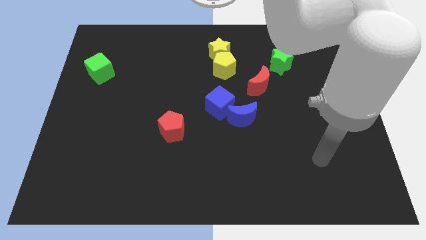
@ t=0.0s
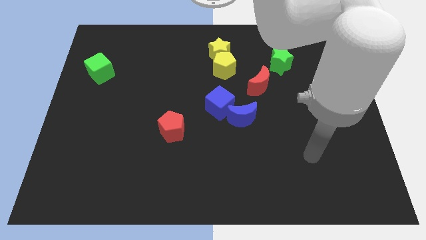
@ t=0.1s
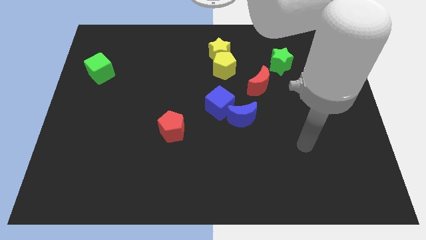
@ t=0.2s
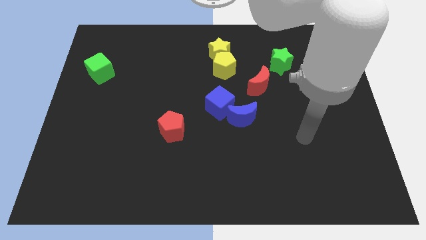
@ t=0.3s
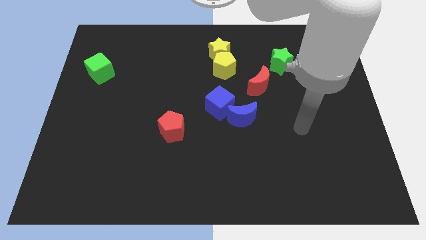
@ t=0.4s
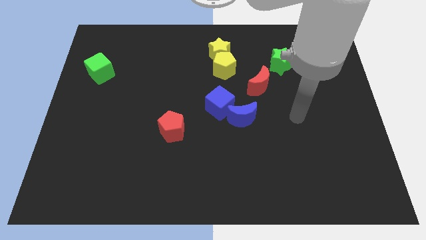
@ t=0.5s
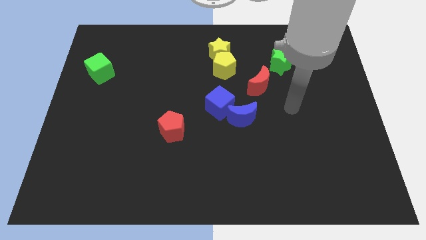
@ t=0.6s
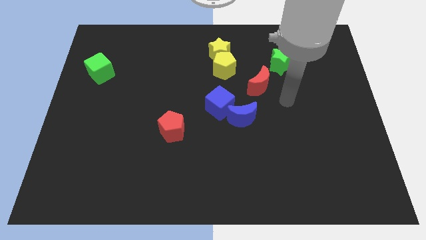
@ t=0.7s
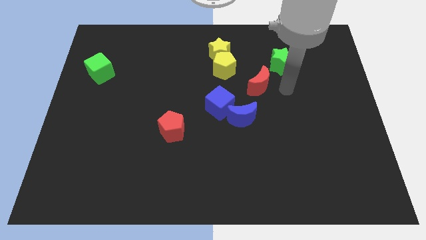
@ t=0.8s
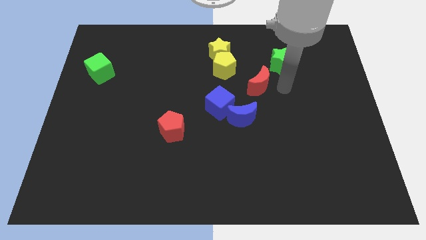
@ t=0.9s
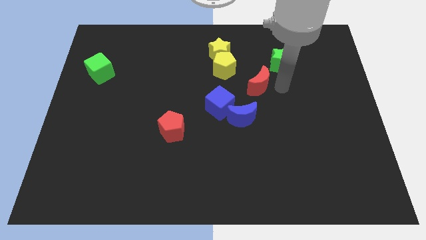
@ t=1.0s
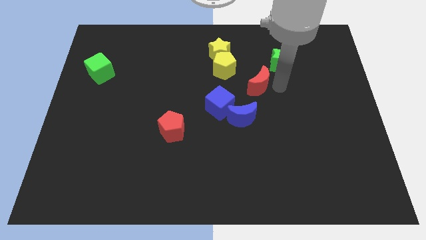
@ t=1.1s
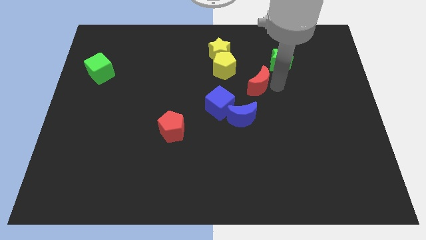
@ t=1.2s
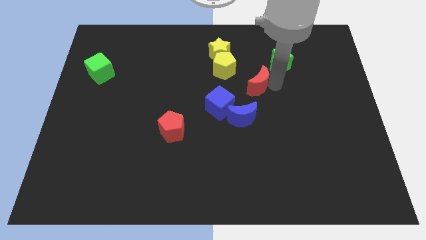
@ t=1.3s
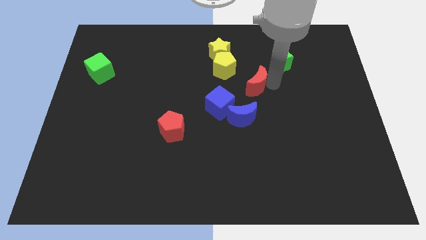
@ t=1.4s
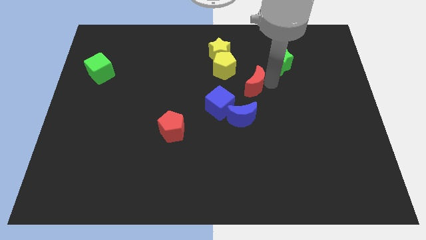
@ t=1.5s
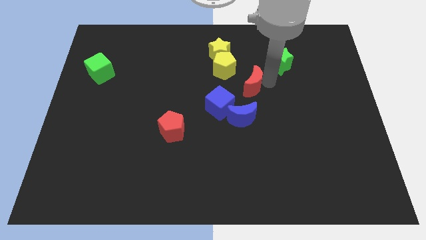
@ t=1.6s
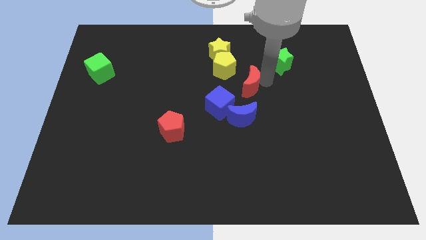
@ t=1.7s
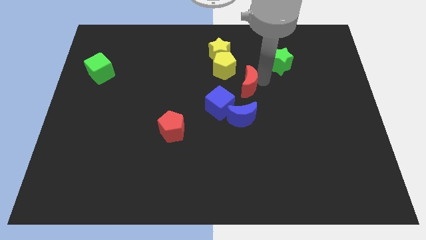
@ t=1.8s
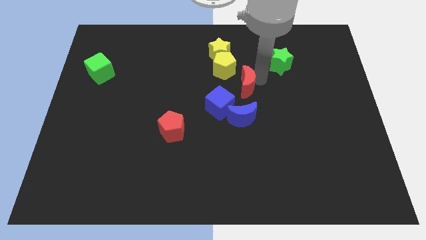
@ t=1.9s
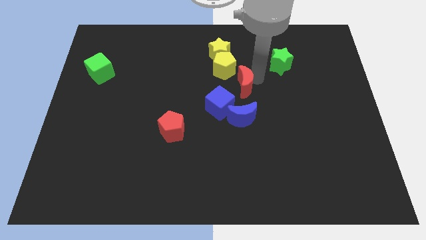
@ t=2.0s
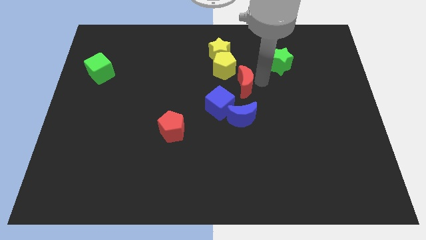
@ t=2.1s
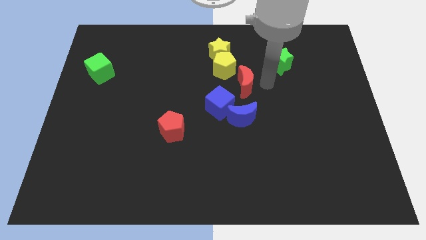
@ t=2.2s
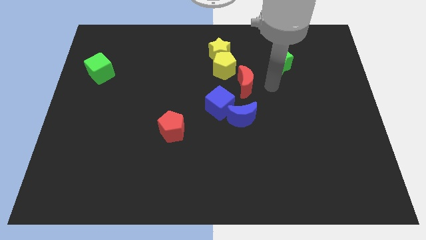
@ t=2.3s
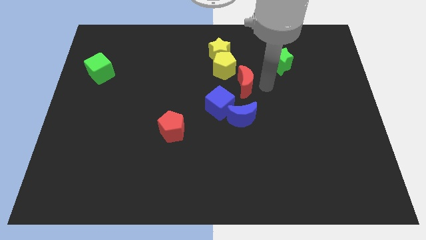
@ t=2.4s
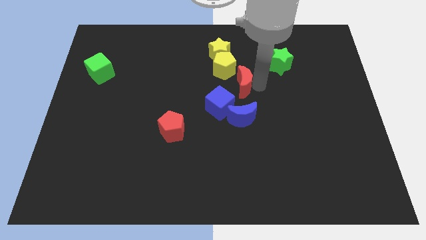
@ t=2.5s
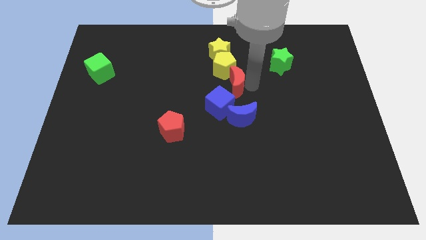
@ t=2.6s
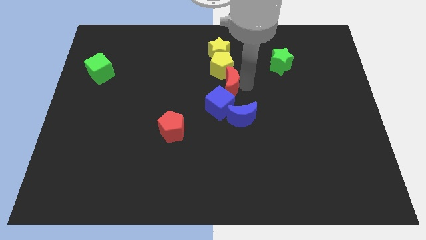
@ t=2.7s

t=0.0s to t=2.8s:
slightly move the red moon left

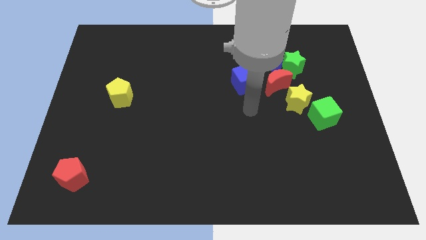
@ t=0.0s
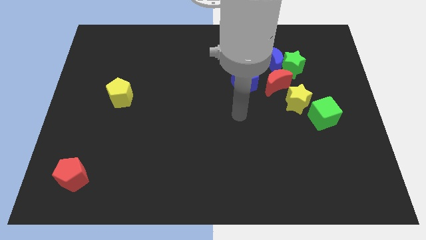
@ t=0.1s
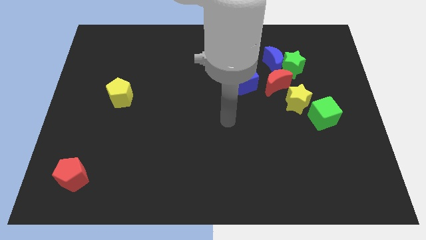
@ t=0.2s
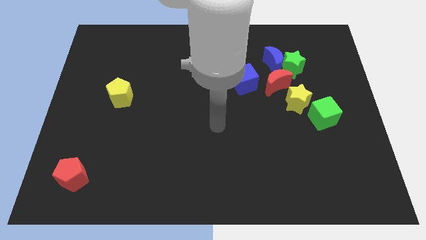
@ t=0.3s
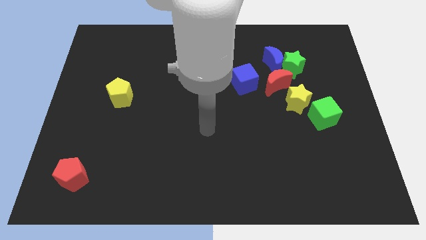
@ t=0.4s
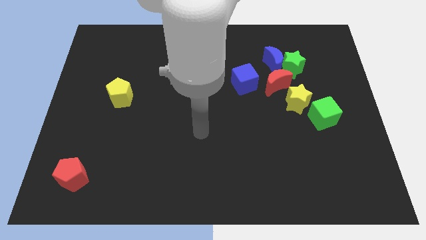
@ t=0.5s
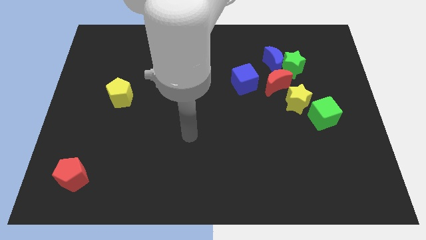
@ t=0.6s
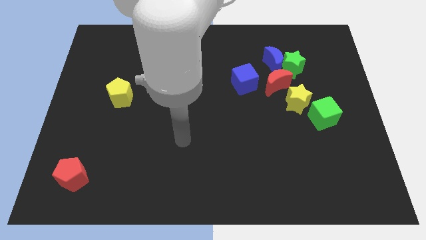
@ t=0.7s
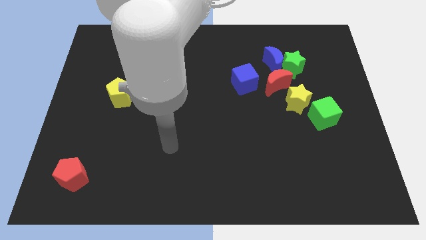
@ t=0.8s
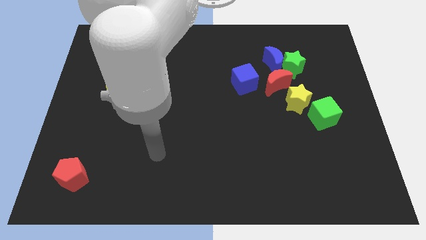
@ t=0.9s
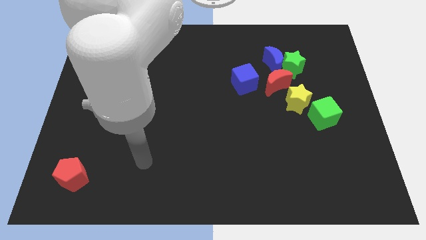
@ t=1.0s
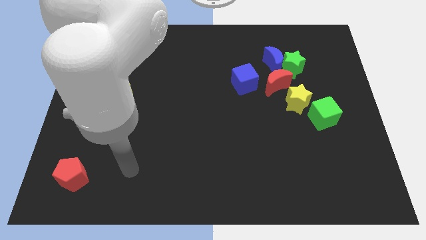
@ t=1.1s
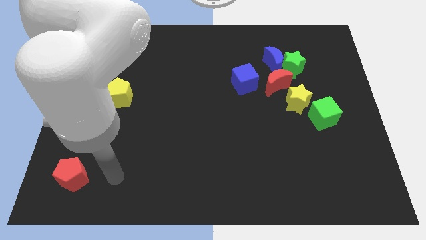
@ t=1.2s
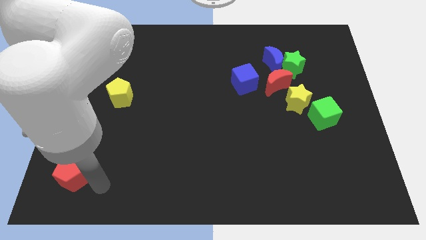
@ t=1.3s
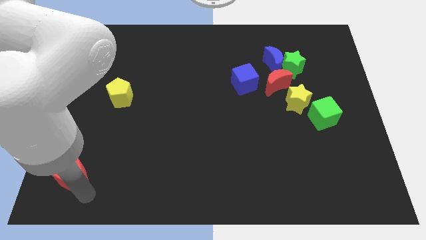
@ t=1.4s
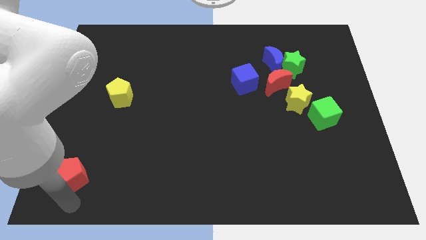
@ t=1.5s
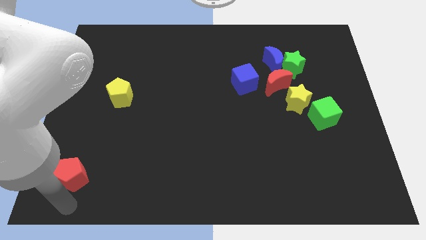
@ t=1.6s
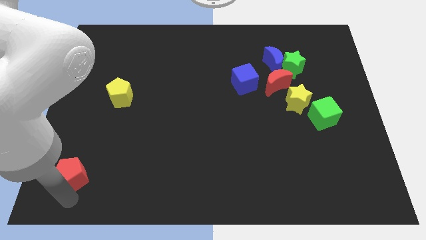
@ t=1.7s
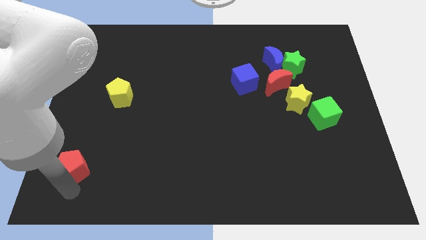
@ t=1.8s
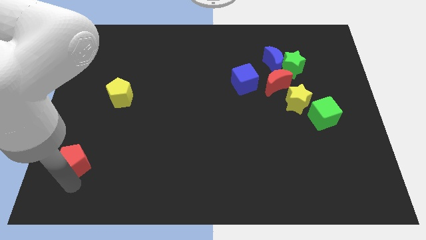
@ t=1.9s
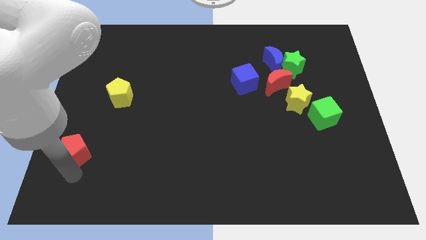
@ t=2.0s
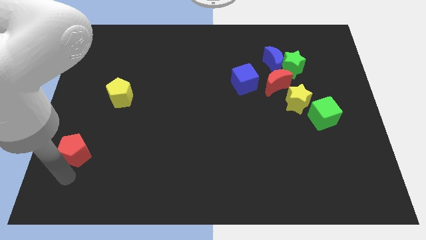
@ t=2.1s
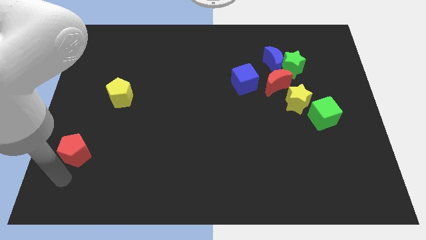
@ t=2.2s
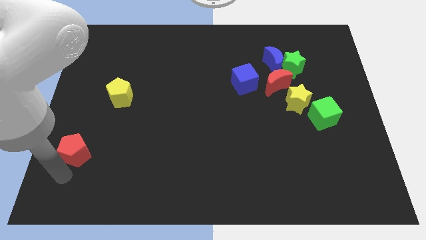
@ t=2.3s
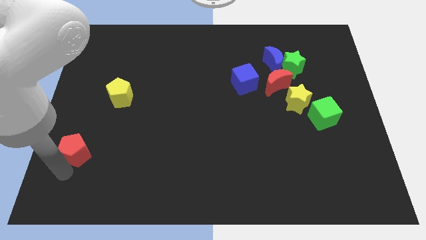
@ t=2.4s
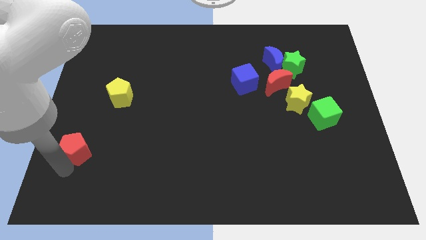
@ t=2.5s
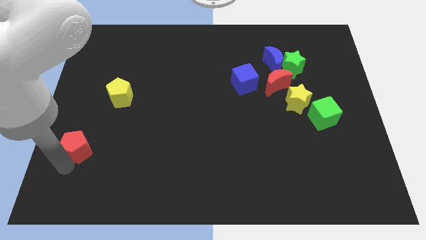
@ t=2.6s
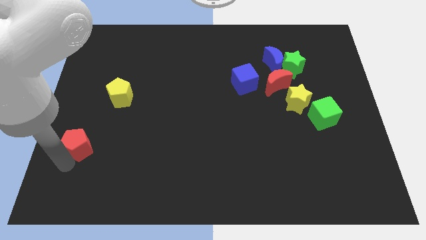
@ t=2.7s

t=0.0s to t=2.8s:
slightly move the red pentagon upwards

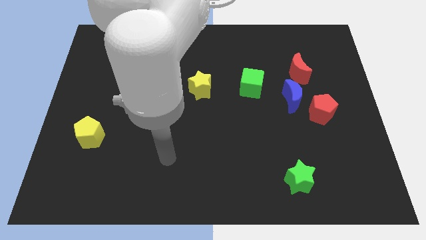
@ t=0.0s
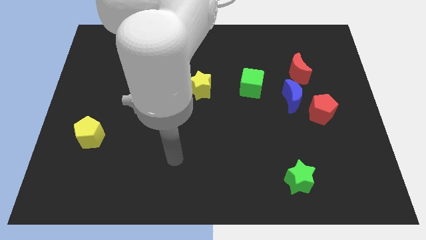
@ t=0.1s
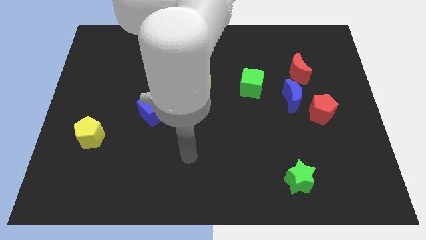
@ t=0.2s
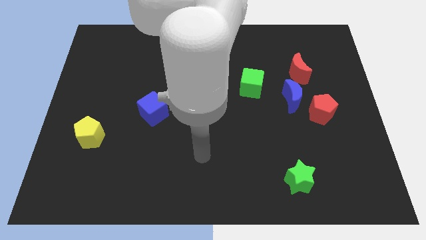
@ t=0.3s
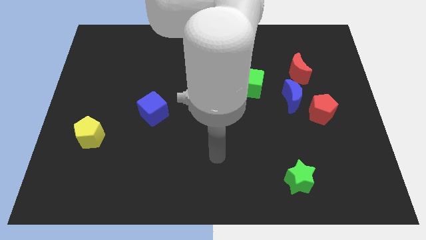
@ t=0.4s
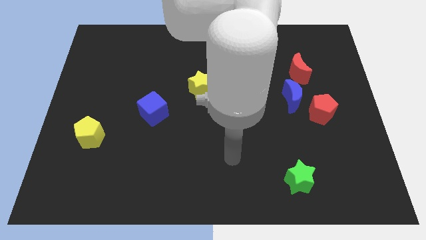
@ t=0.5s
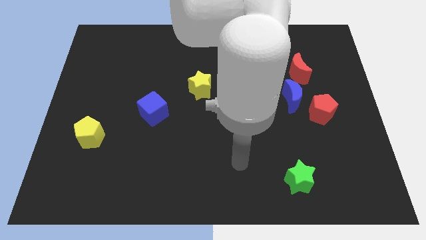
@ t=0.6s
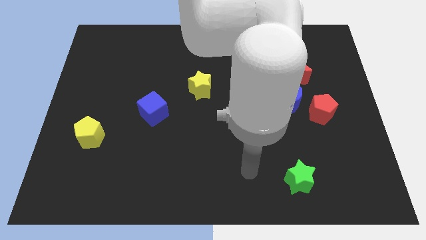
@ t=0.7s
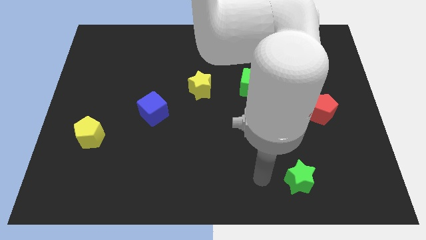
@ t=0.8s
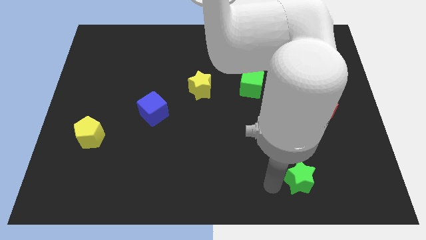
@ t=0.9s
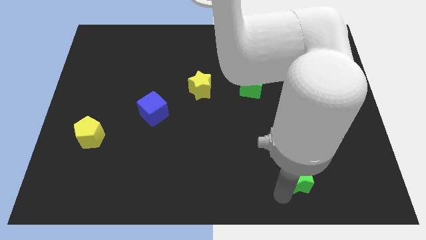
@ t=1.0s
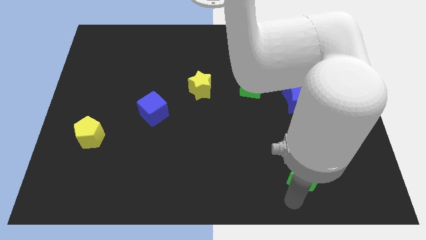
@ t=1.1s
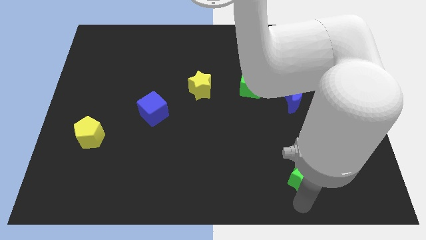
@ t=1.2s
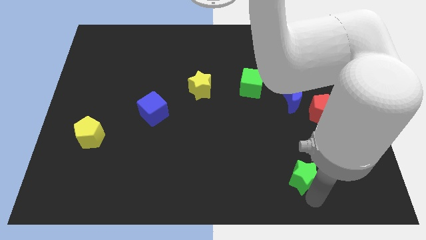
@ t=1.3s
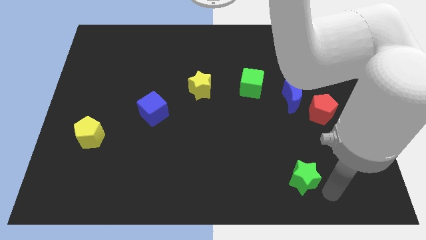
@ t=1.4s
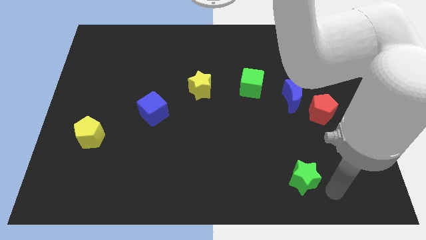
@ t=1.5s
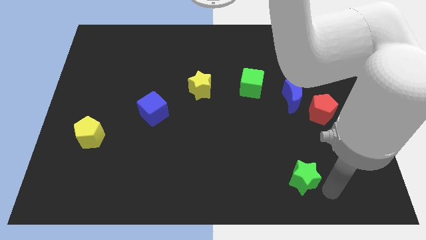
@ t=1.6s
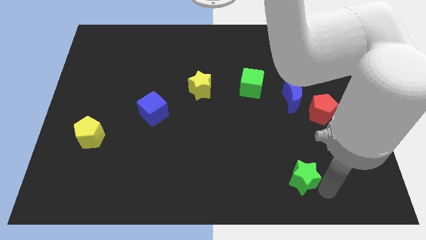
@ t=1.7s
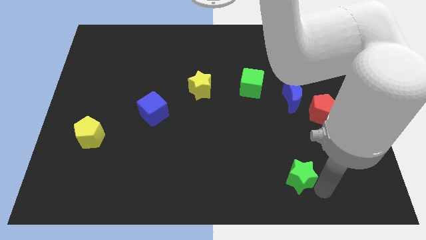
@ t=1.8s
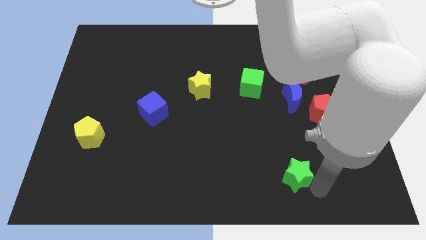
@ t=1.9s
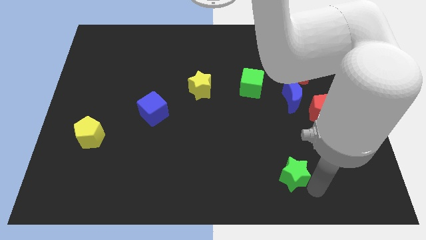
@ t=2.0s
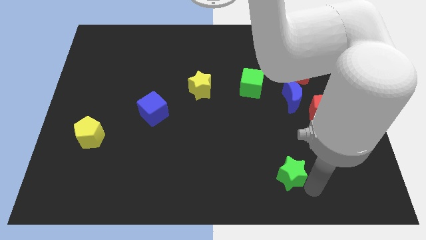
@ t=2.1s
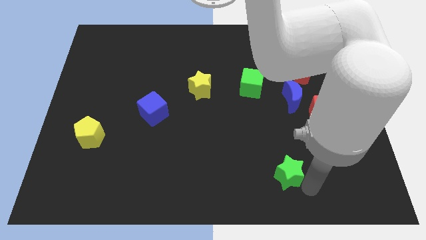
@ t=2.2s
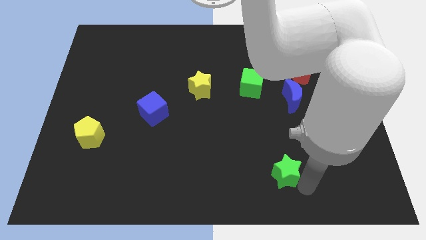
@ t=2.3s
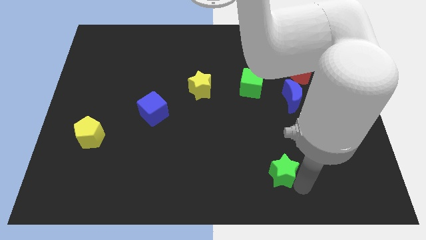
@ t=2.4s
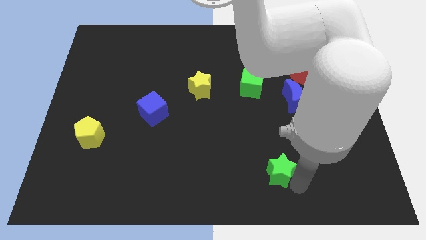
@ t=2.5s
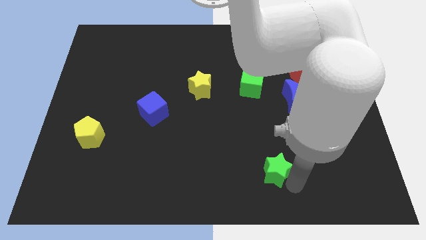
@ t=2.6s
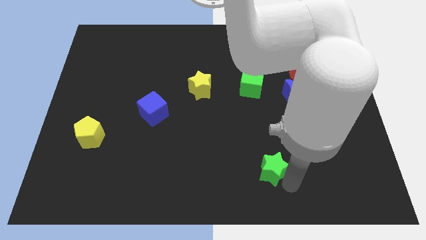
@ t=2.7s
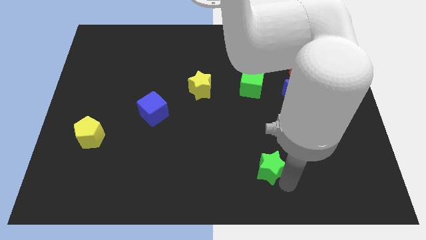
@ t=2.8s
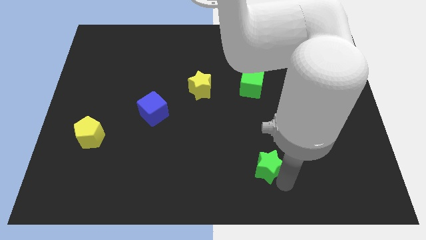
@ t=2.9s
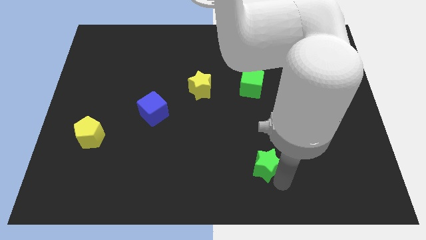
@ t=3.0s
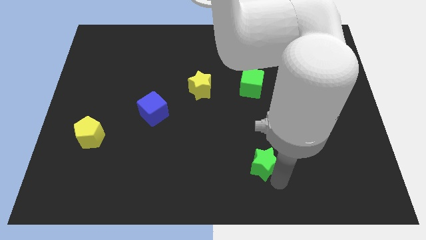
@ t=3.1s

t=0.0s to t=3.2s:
move the green star a bit diagonally up and to the left
